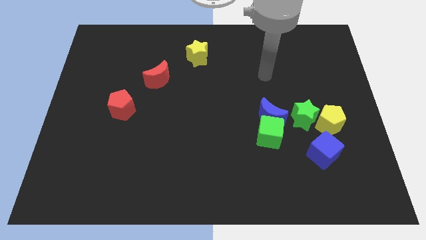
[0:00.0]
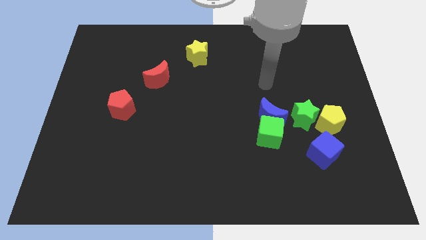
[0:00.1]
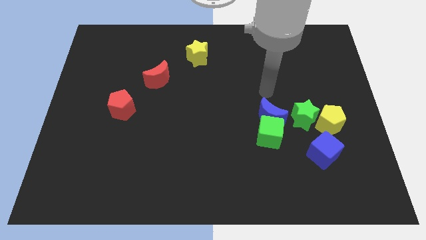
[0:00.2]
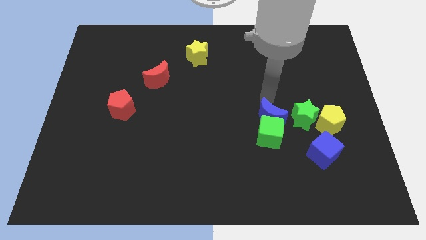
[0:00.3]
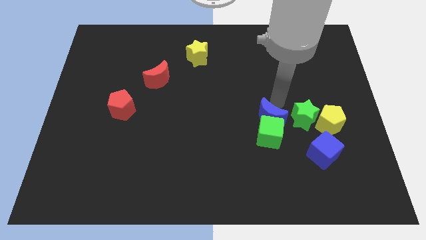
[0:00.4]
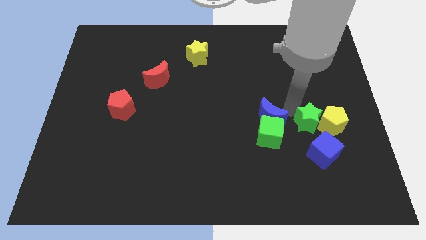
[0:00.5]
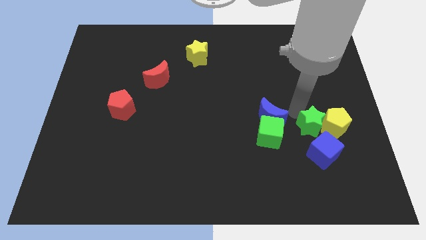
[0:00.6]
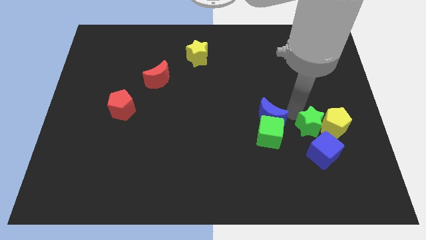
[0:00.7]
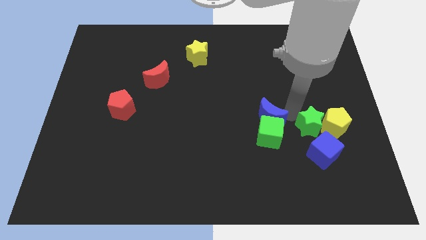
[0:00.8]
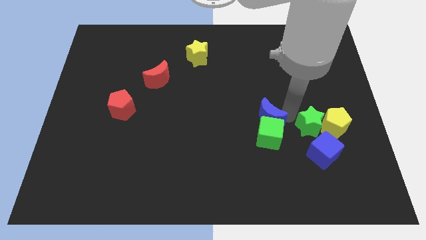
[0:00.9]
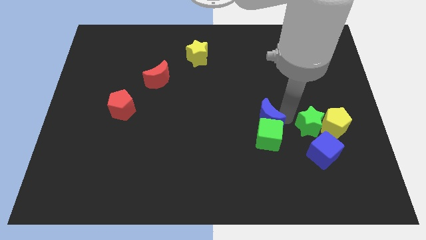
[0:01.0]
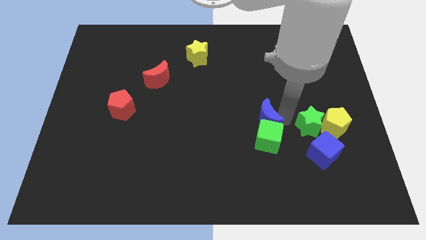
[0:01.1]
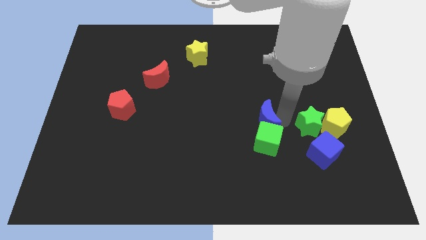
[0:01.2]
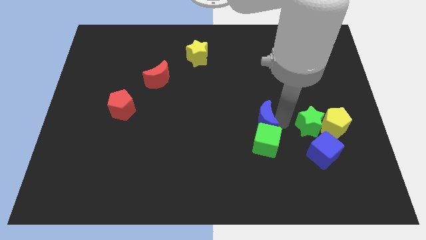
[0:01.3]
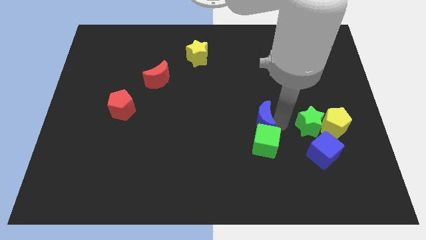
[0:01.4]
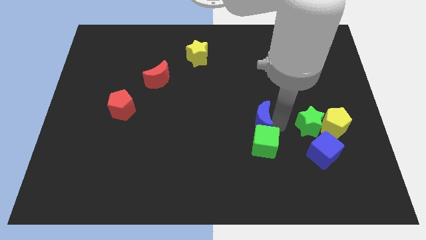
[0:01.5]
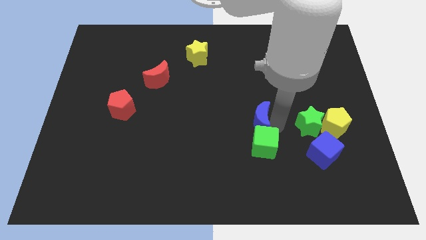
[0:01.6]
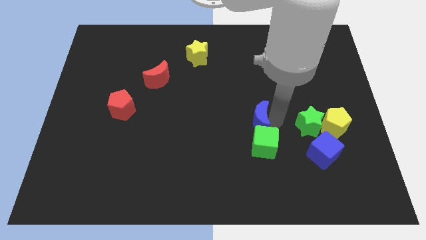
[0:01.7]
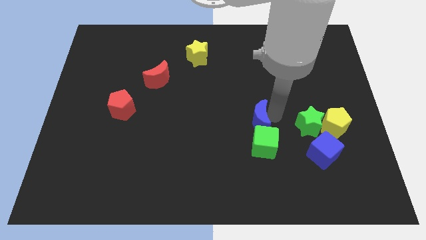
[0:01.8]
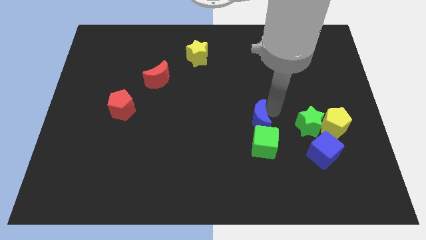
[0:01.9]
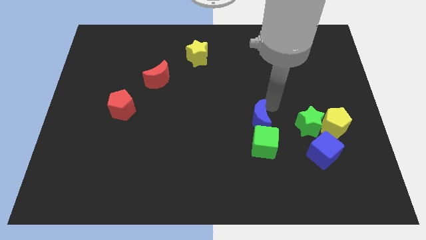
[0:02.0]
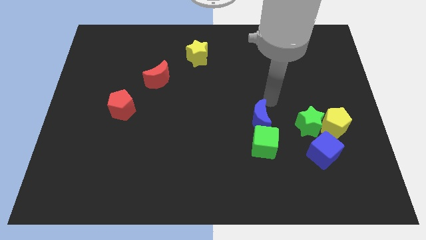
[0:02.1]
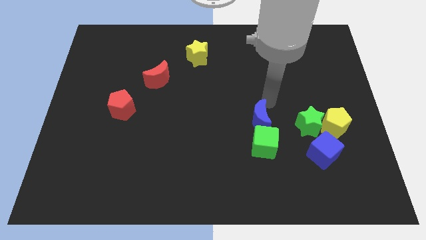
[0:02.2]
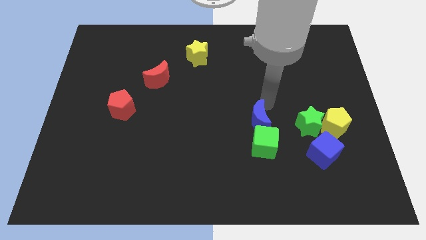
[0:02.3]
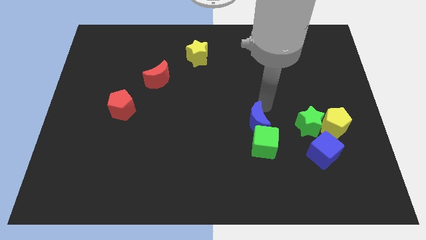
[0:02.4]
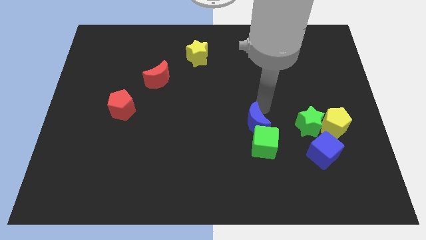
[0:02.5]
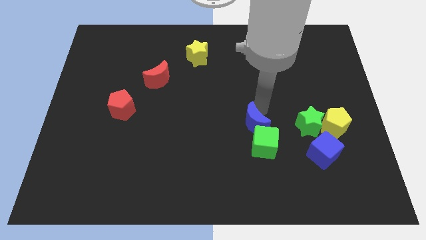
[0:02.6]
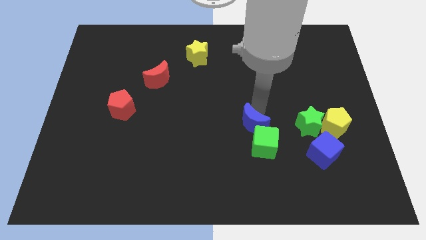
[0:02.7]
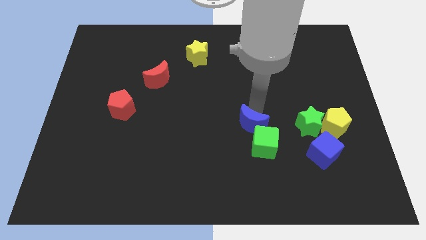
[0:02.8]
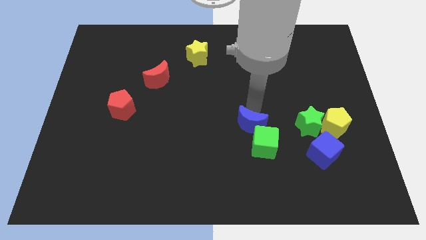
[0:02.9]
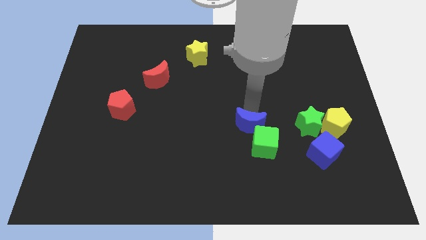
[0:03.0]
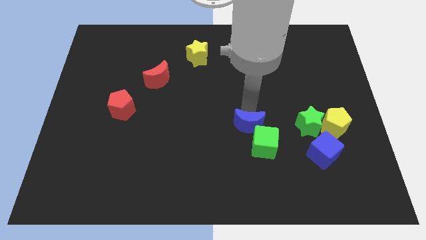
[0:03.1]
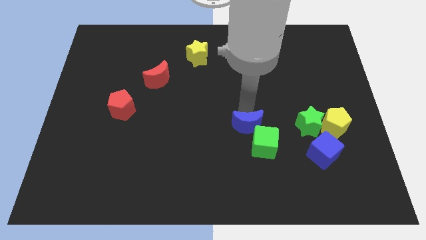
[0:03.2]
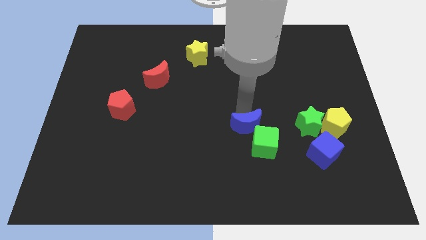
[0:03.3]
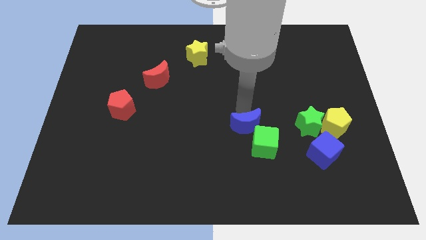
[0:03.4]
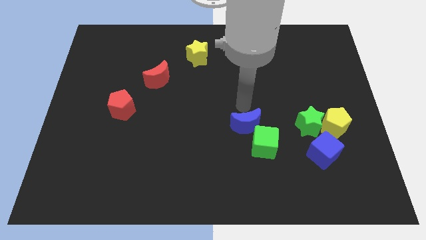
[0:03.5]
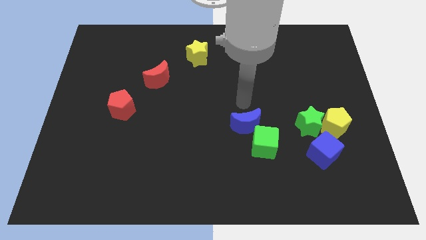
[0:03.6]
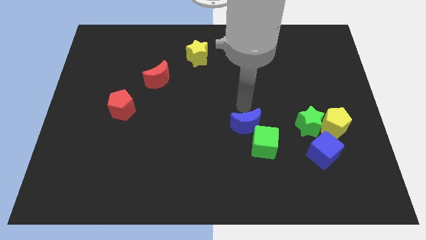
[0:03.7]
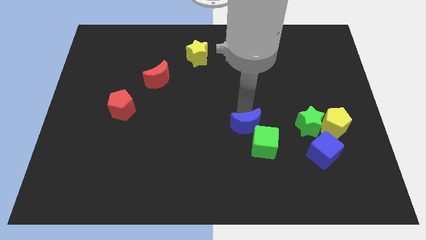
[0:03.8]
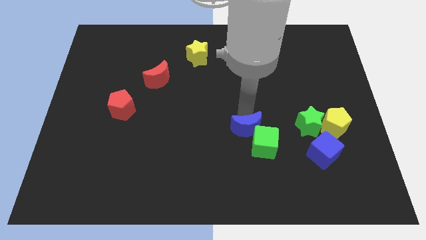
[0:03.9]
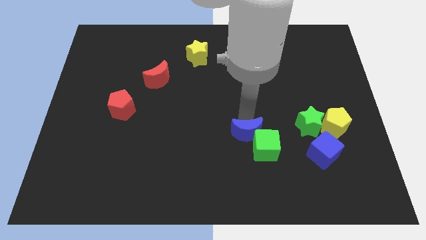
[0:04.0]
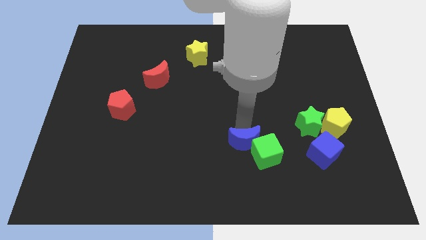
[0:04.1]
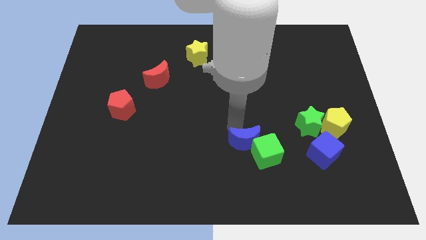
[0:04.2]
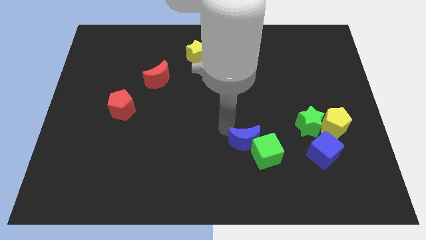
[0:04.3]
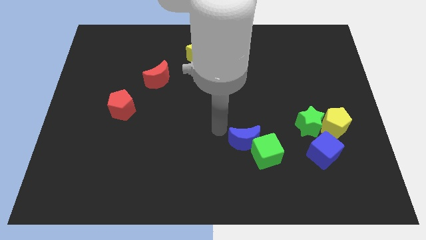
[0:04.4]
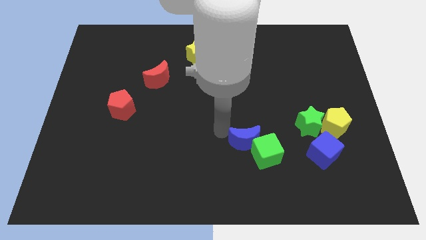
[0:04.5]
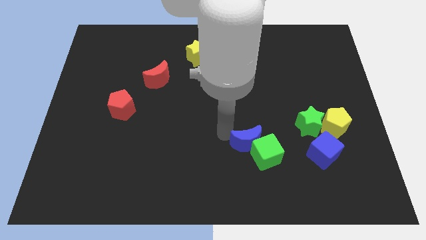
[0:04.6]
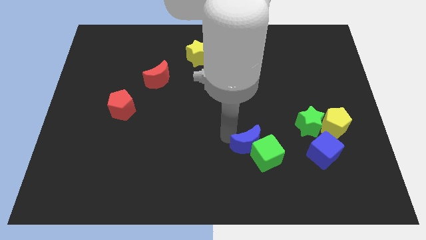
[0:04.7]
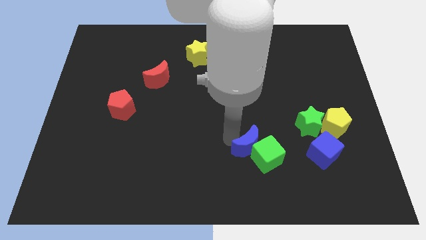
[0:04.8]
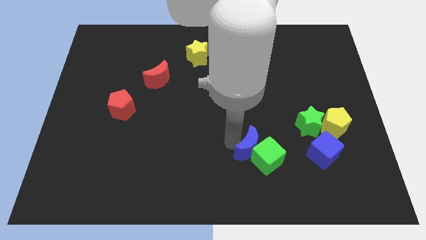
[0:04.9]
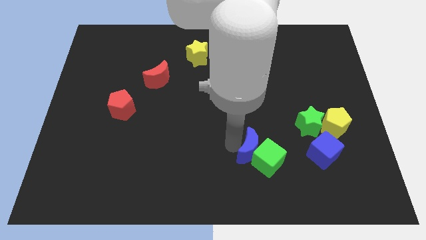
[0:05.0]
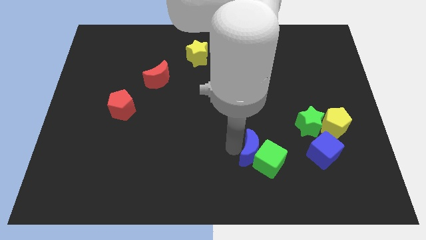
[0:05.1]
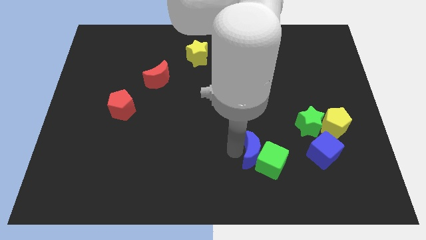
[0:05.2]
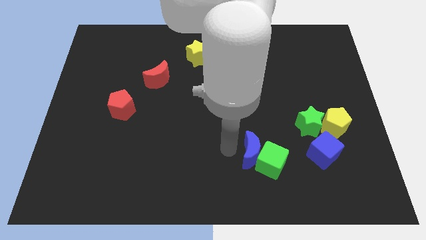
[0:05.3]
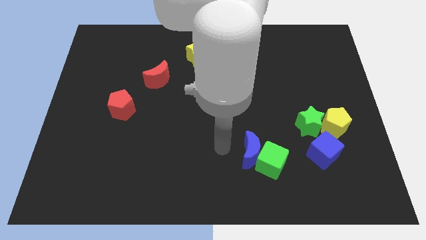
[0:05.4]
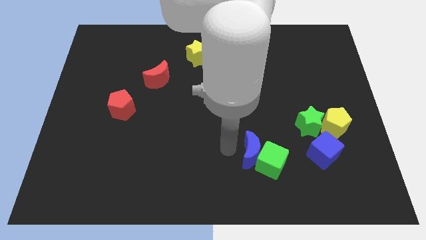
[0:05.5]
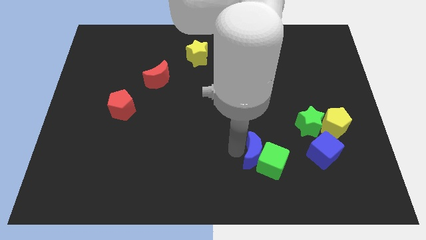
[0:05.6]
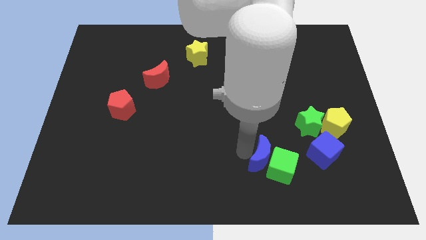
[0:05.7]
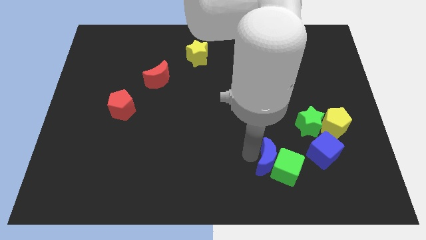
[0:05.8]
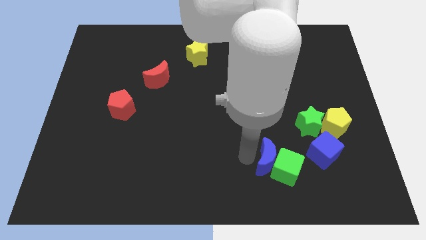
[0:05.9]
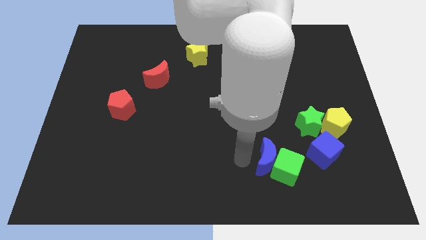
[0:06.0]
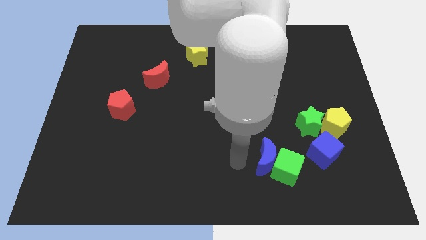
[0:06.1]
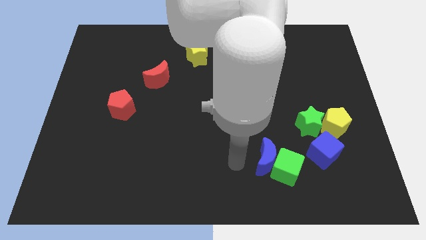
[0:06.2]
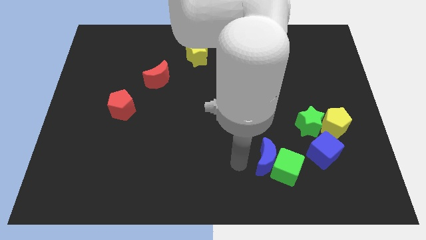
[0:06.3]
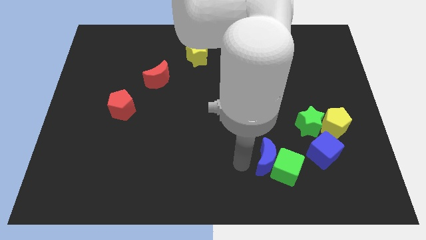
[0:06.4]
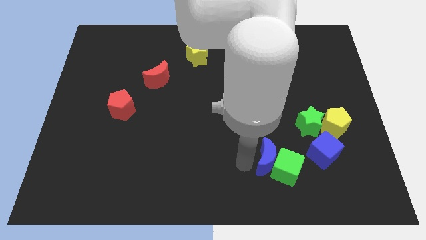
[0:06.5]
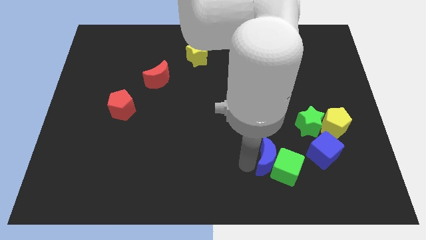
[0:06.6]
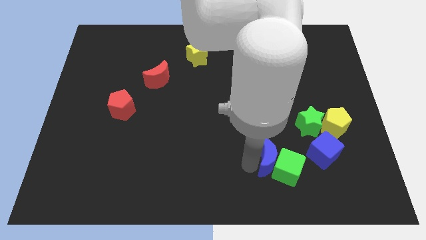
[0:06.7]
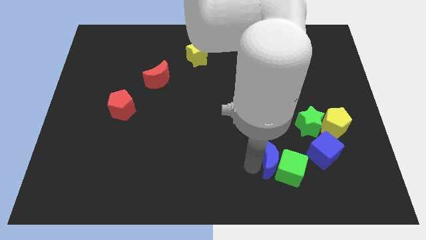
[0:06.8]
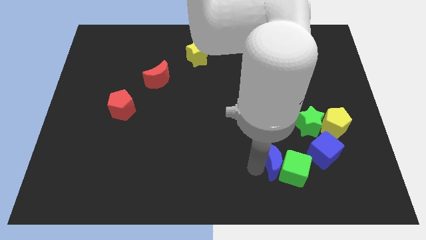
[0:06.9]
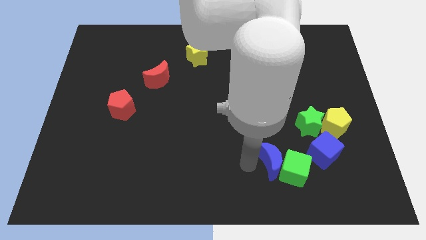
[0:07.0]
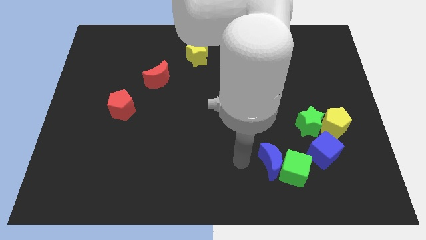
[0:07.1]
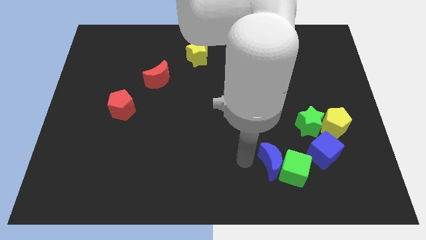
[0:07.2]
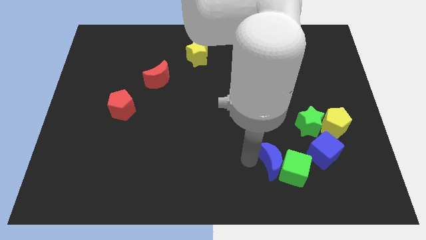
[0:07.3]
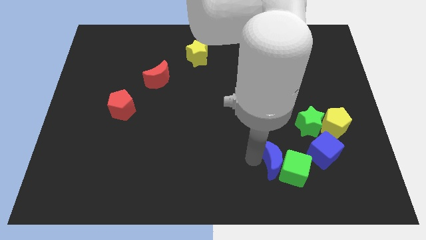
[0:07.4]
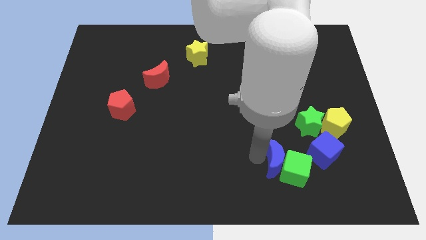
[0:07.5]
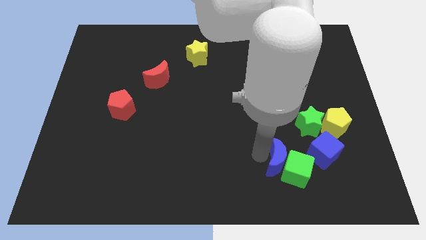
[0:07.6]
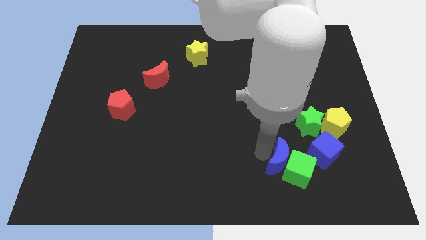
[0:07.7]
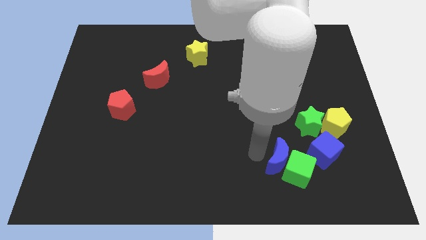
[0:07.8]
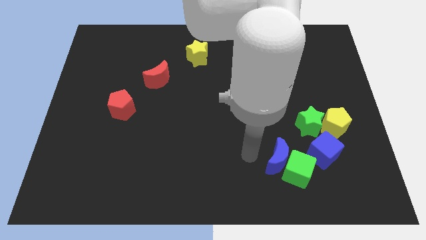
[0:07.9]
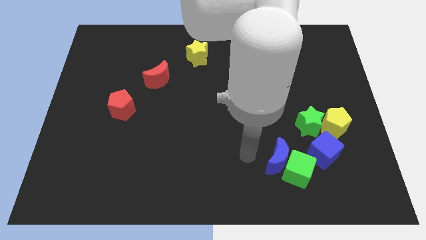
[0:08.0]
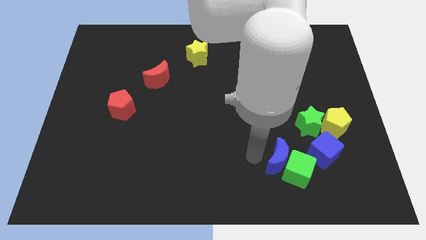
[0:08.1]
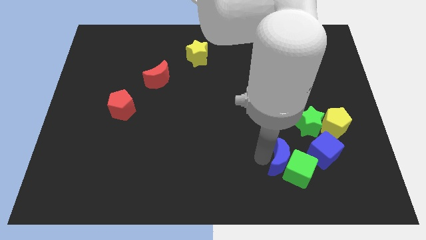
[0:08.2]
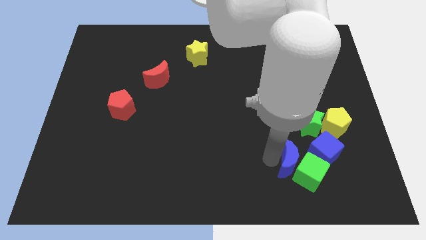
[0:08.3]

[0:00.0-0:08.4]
move the blue moon a little down and to the right

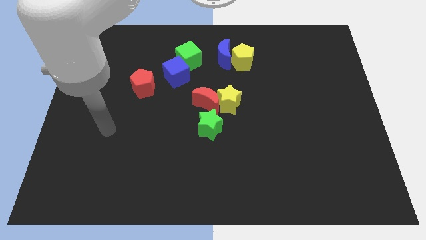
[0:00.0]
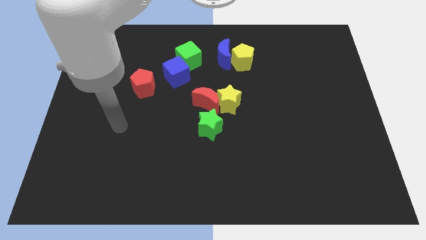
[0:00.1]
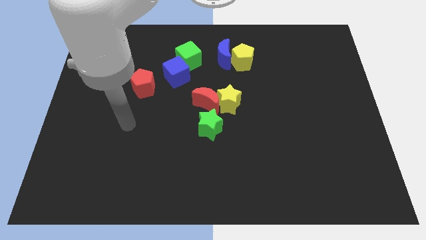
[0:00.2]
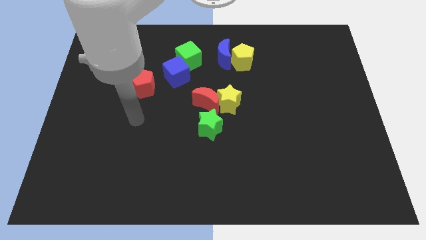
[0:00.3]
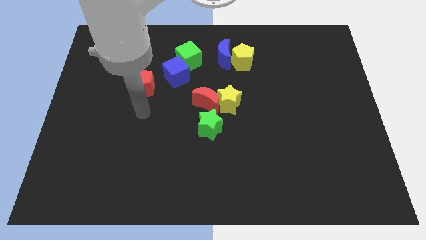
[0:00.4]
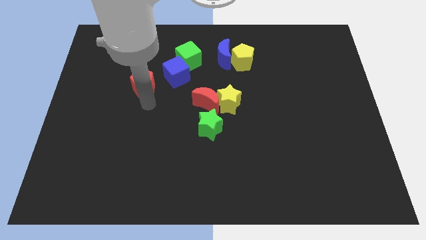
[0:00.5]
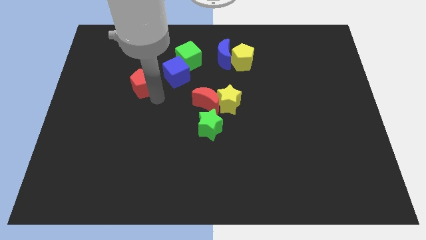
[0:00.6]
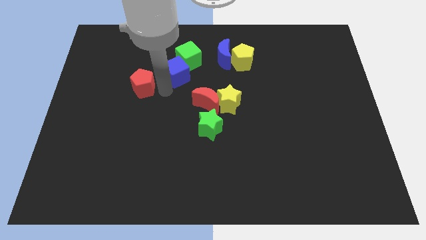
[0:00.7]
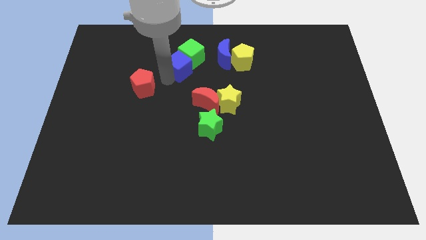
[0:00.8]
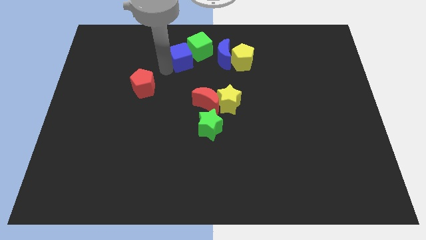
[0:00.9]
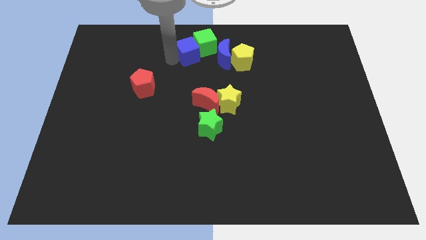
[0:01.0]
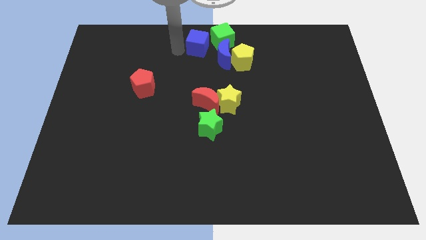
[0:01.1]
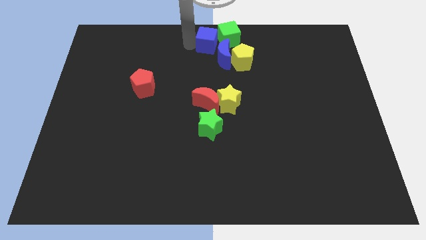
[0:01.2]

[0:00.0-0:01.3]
move the green cube to the right a little bit
